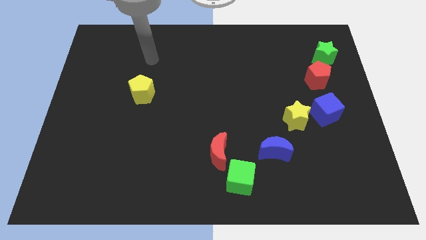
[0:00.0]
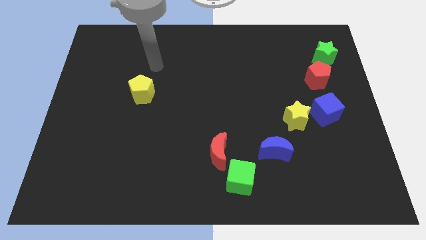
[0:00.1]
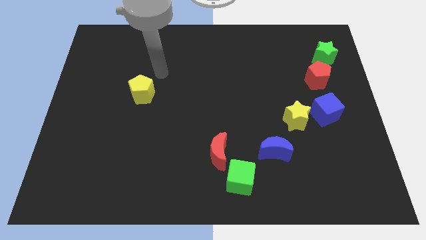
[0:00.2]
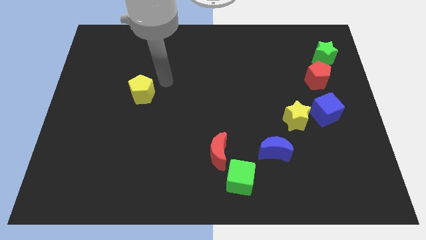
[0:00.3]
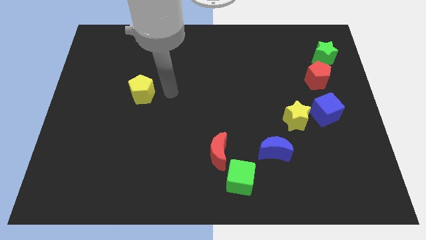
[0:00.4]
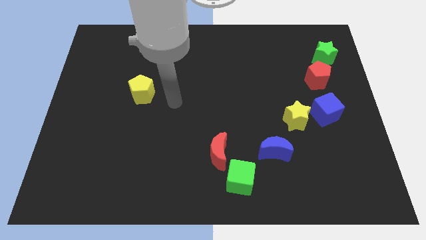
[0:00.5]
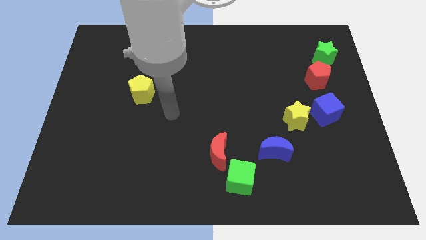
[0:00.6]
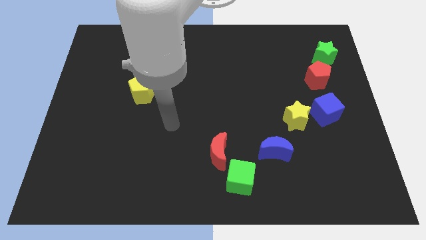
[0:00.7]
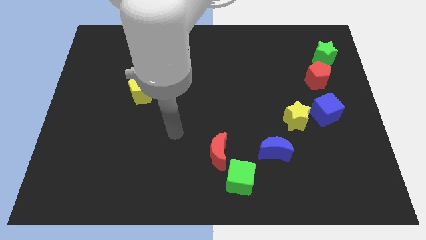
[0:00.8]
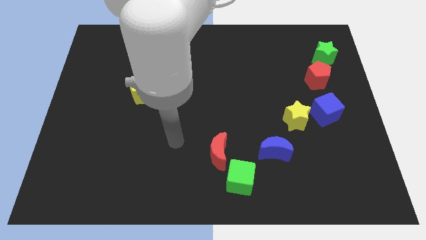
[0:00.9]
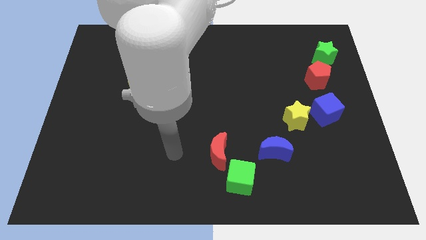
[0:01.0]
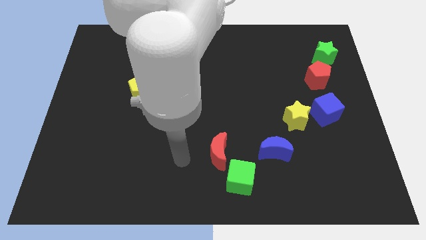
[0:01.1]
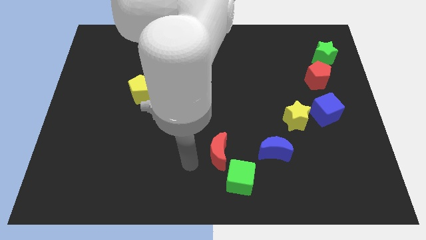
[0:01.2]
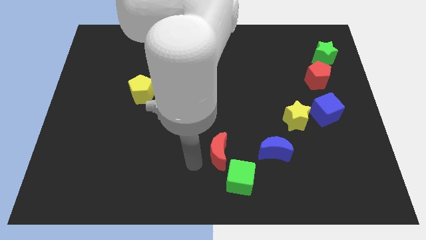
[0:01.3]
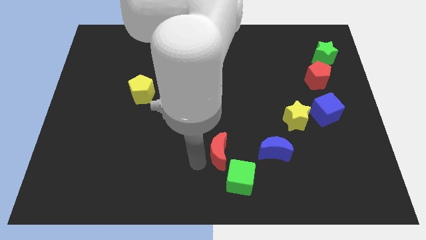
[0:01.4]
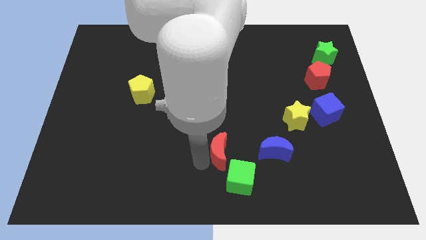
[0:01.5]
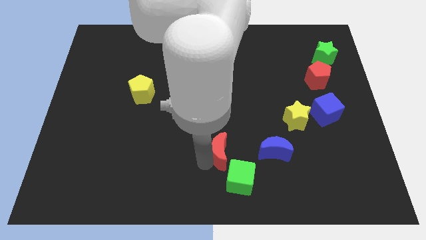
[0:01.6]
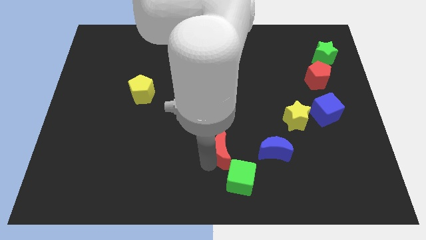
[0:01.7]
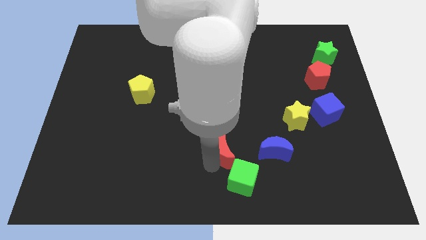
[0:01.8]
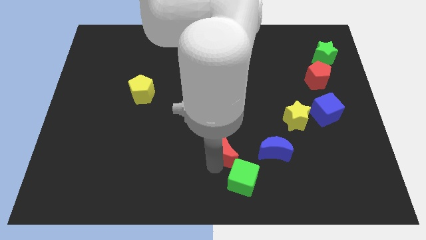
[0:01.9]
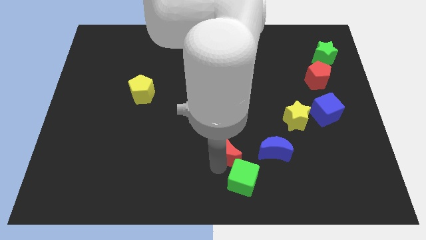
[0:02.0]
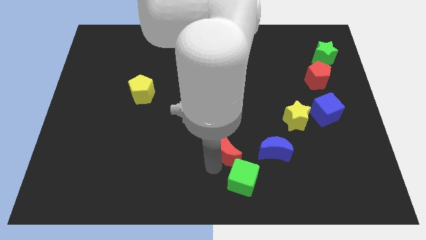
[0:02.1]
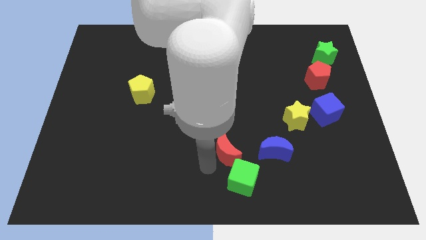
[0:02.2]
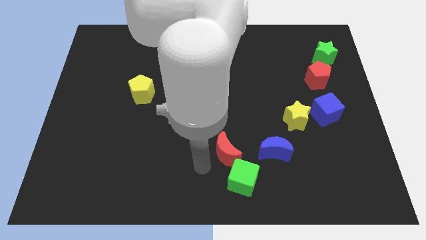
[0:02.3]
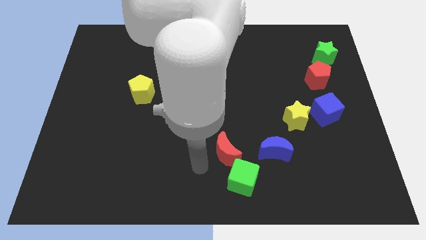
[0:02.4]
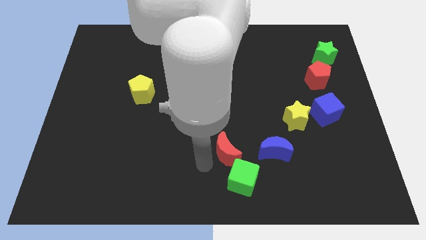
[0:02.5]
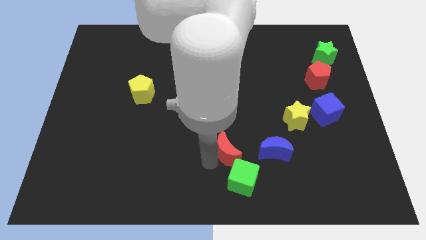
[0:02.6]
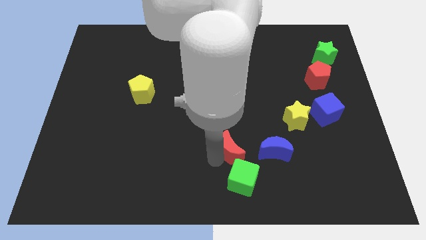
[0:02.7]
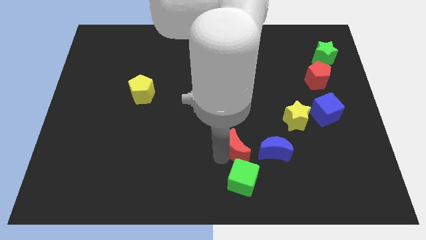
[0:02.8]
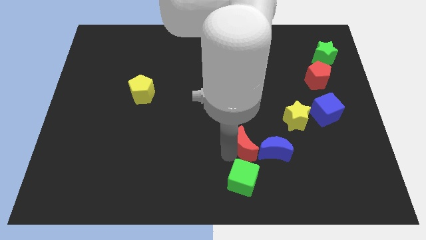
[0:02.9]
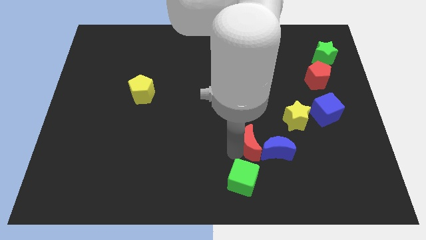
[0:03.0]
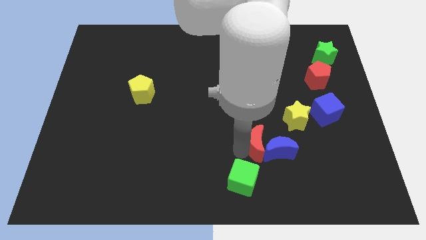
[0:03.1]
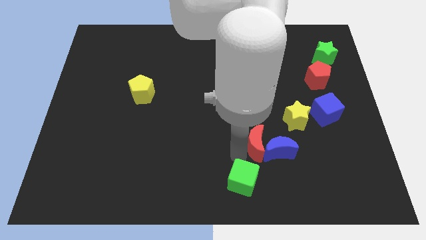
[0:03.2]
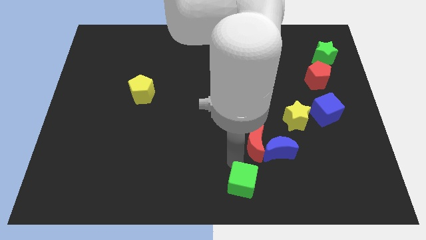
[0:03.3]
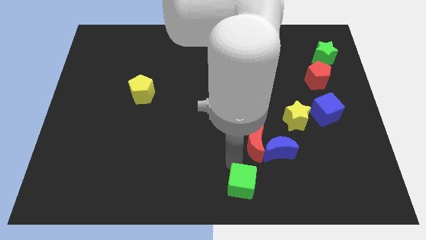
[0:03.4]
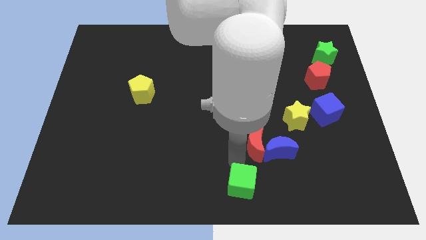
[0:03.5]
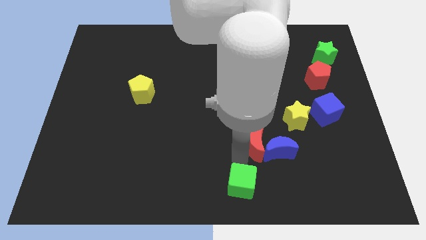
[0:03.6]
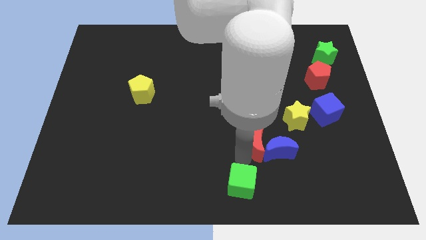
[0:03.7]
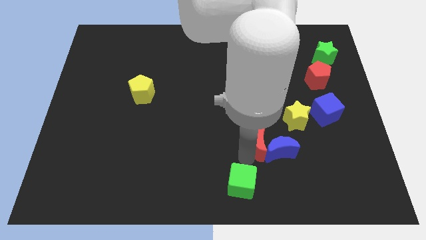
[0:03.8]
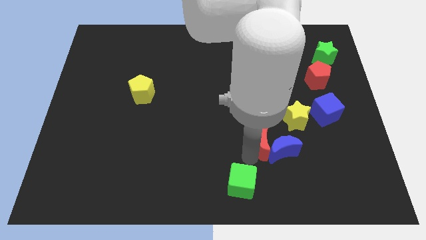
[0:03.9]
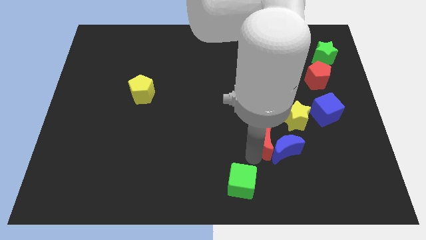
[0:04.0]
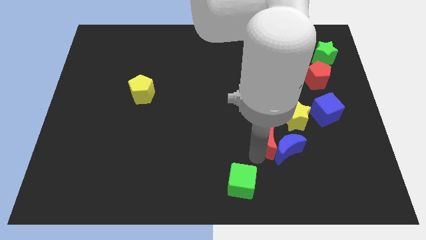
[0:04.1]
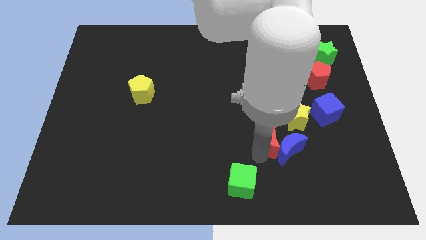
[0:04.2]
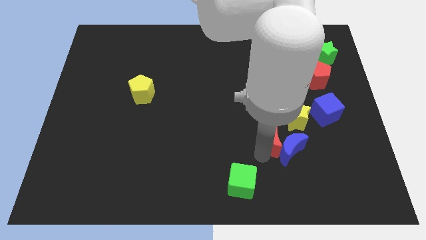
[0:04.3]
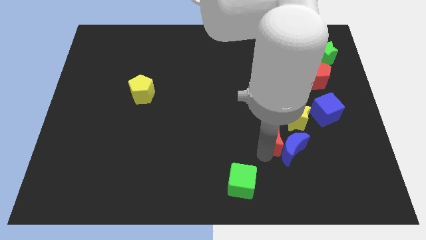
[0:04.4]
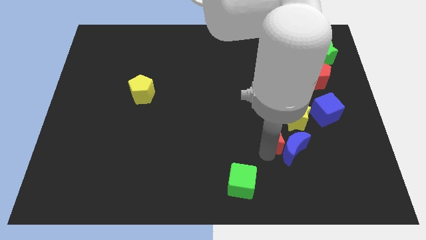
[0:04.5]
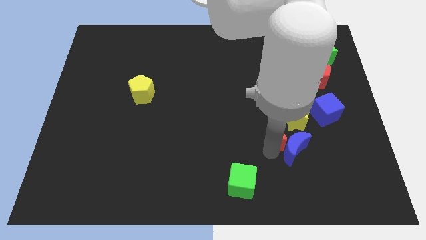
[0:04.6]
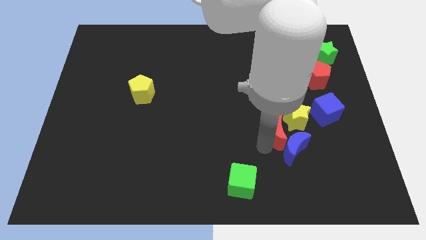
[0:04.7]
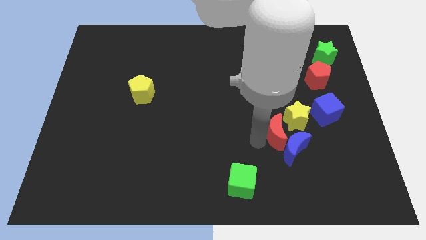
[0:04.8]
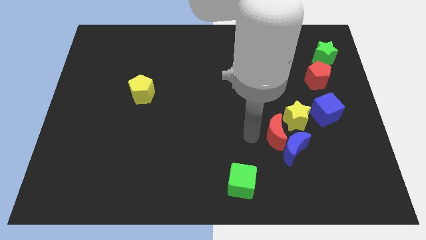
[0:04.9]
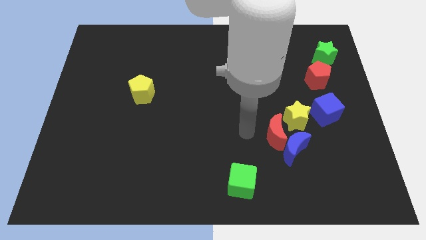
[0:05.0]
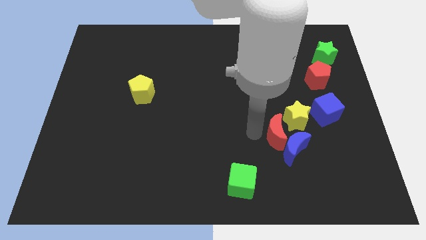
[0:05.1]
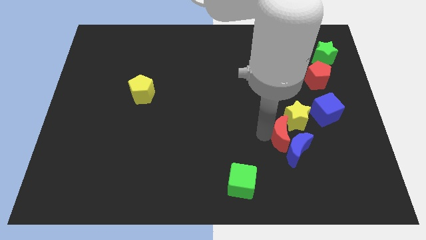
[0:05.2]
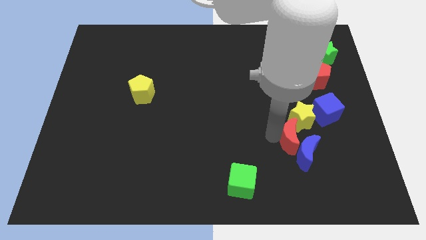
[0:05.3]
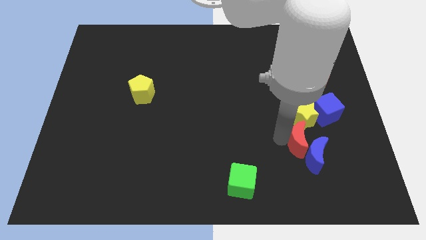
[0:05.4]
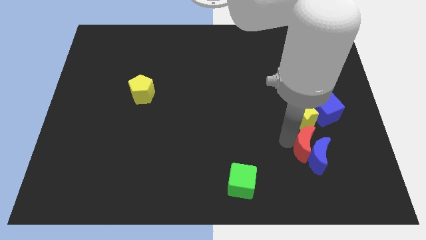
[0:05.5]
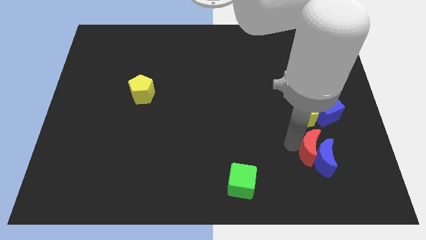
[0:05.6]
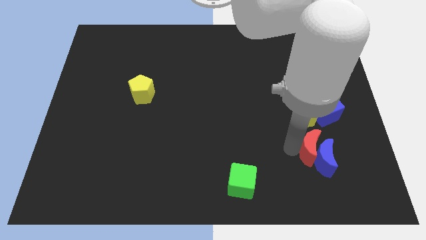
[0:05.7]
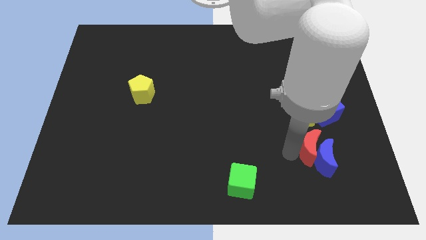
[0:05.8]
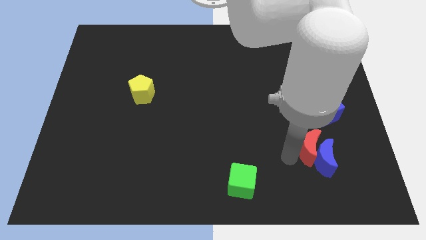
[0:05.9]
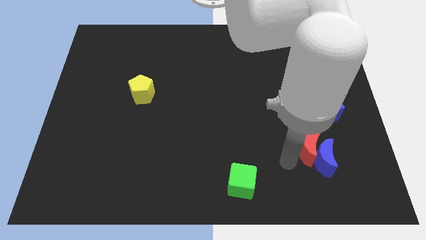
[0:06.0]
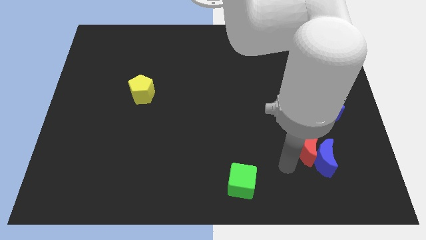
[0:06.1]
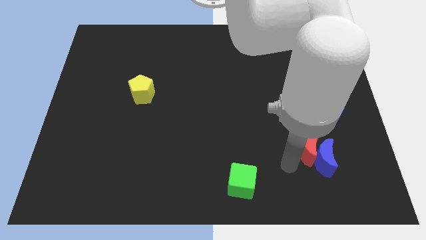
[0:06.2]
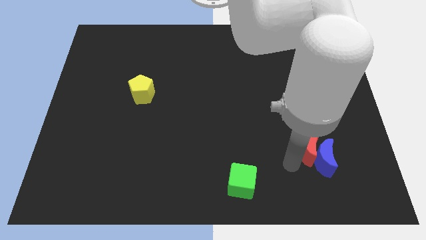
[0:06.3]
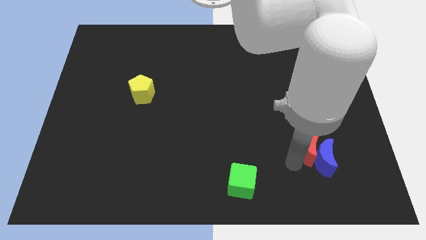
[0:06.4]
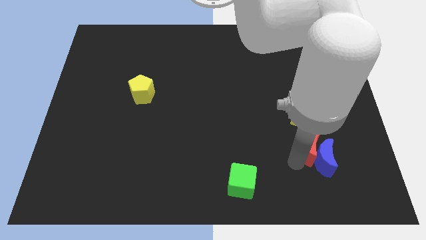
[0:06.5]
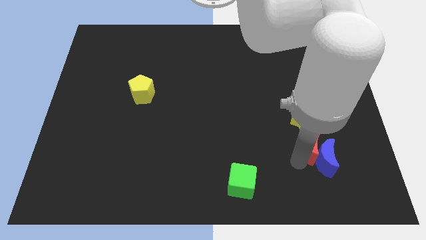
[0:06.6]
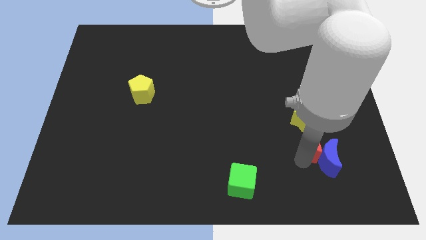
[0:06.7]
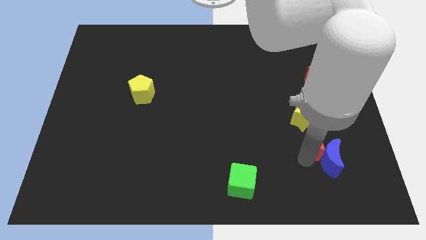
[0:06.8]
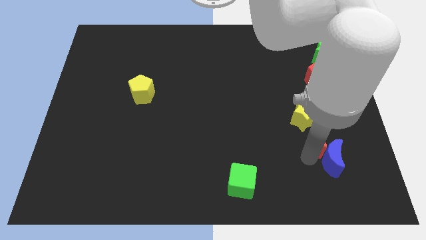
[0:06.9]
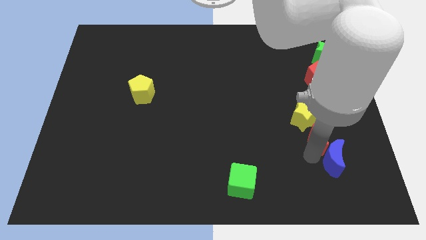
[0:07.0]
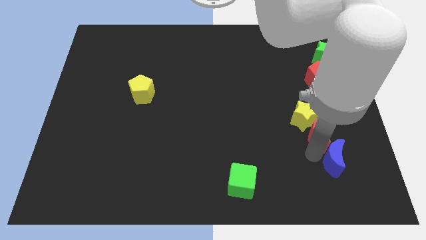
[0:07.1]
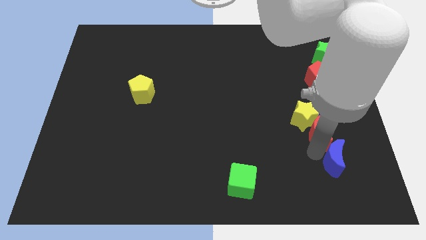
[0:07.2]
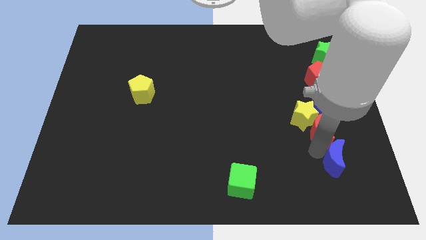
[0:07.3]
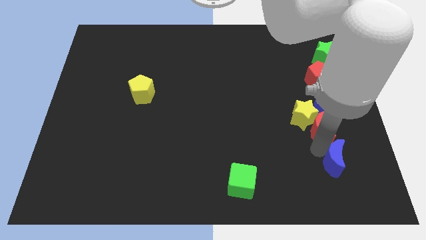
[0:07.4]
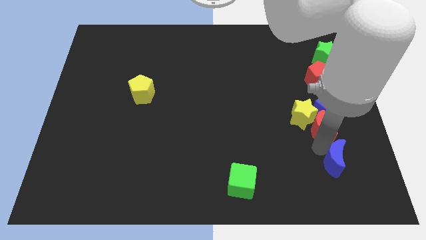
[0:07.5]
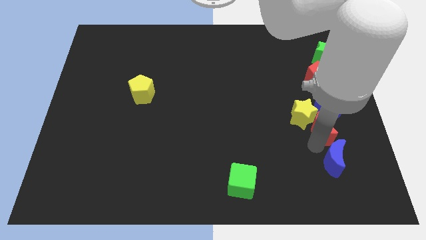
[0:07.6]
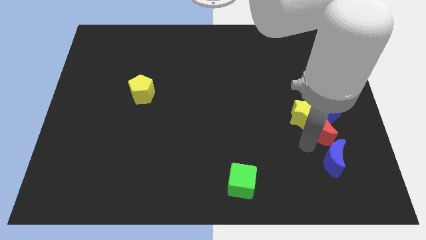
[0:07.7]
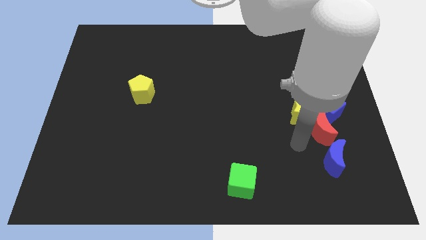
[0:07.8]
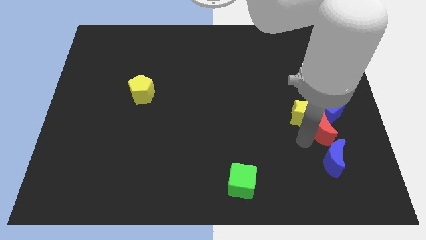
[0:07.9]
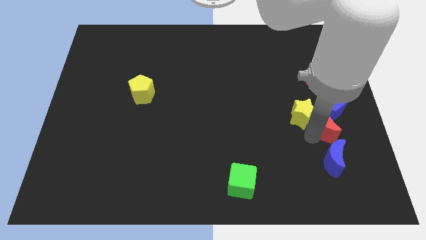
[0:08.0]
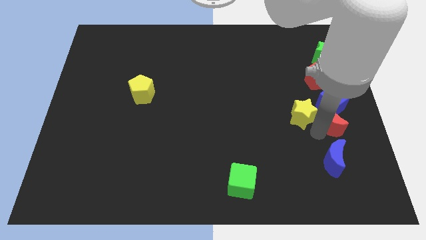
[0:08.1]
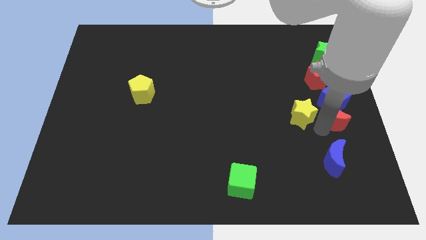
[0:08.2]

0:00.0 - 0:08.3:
slide the red moon to the right side
